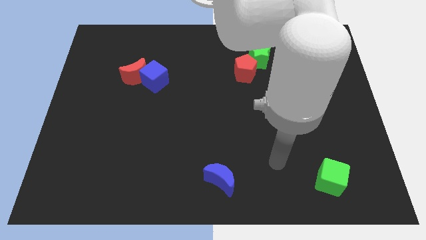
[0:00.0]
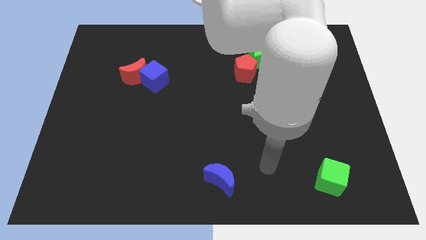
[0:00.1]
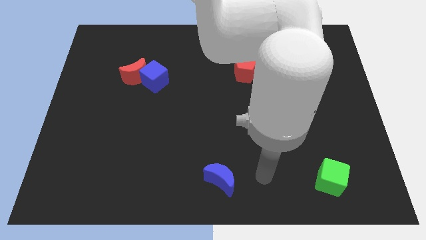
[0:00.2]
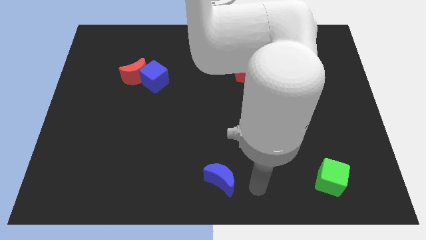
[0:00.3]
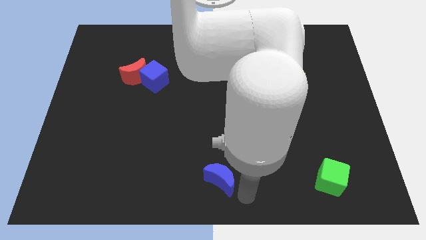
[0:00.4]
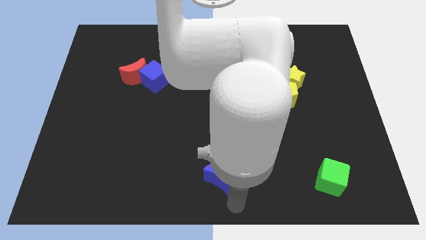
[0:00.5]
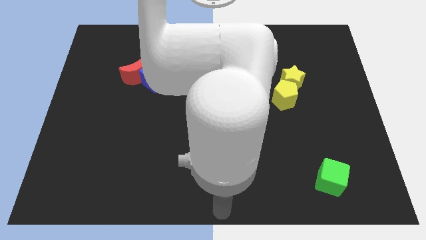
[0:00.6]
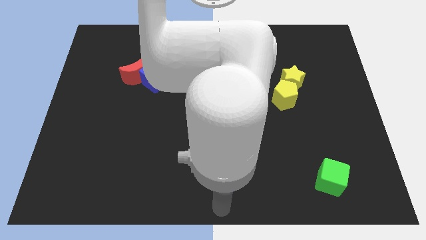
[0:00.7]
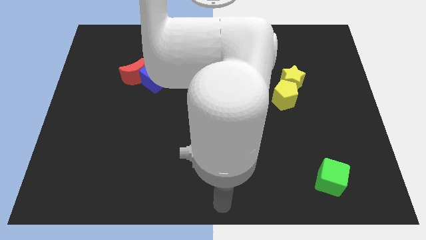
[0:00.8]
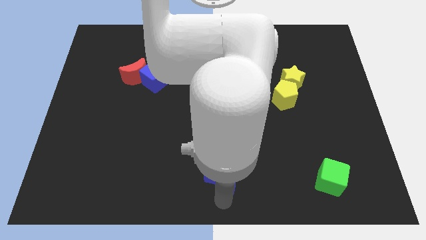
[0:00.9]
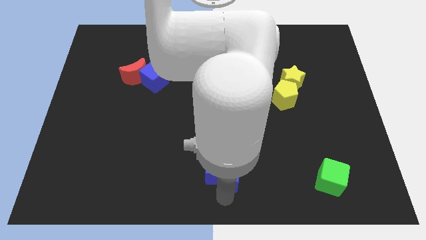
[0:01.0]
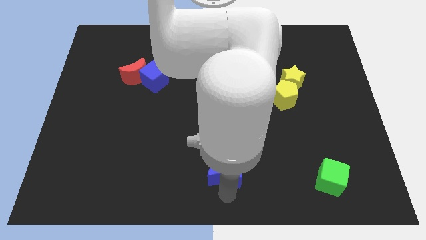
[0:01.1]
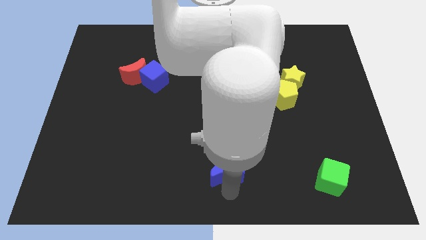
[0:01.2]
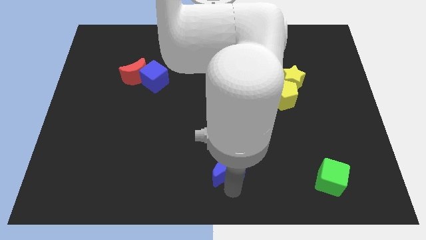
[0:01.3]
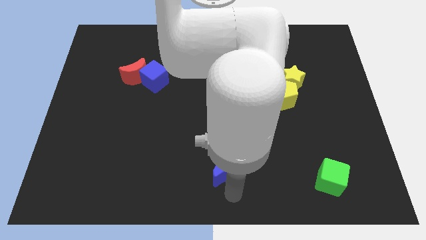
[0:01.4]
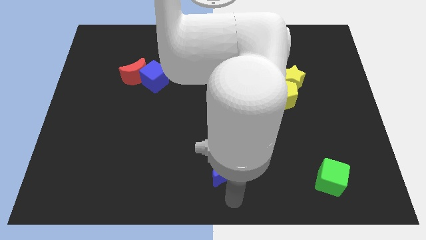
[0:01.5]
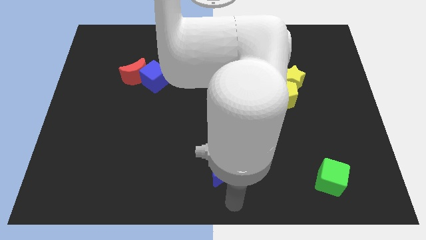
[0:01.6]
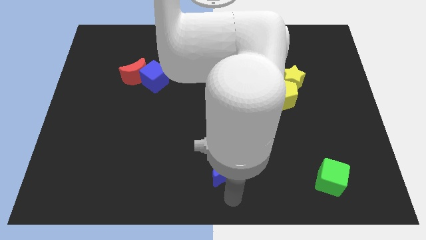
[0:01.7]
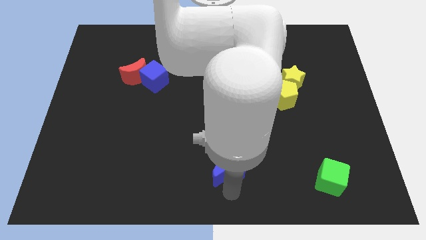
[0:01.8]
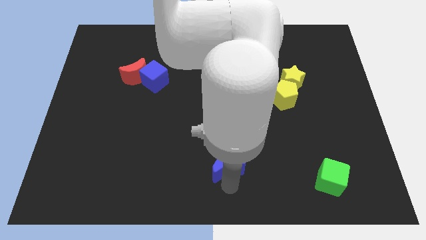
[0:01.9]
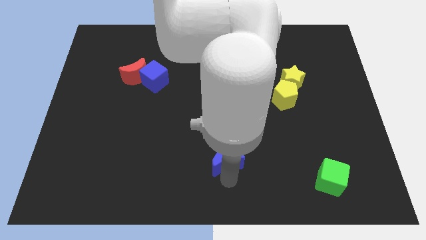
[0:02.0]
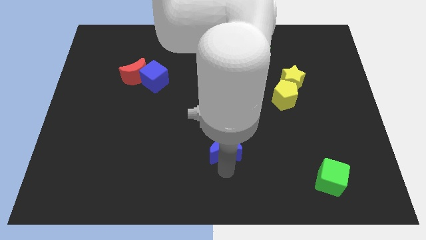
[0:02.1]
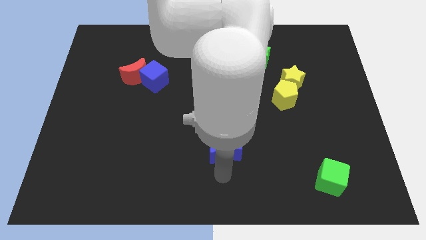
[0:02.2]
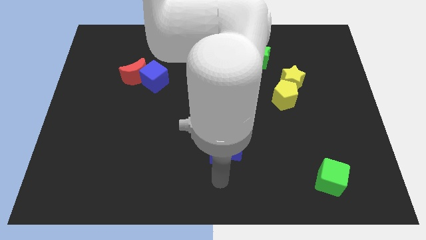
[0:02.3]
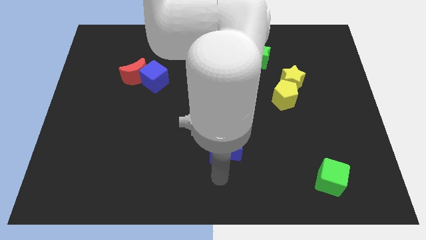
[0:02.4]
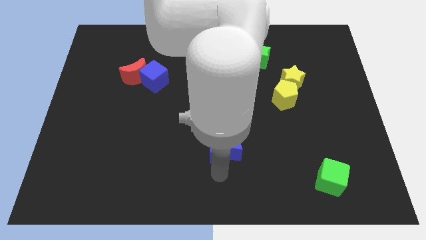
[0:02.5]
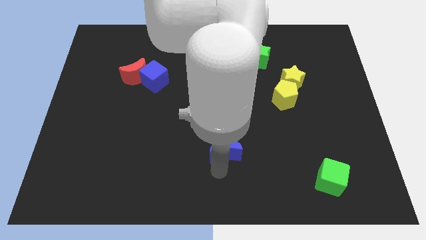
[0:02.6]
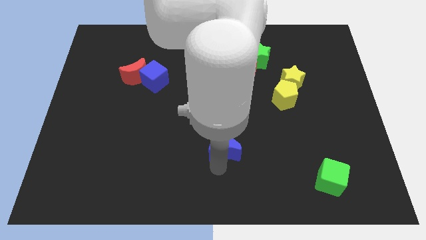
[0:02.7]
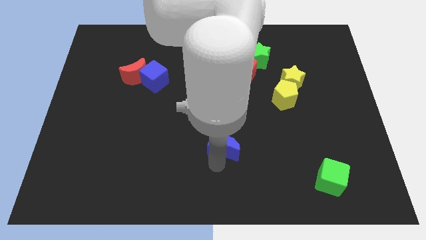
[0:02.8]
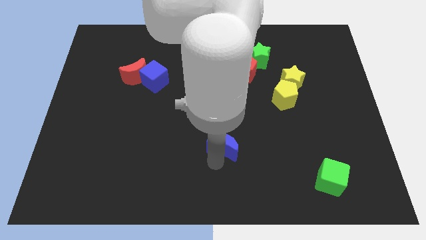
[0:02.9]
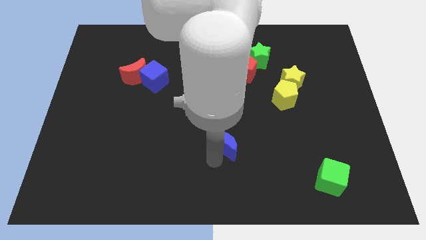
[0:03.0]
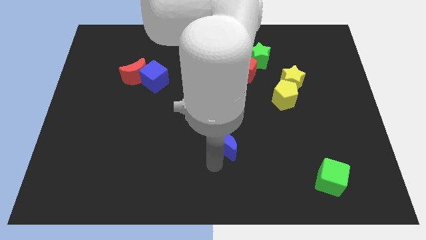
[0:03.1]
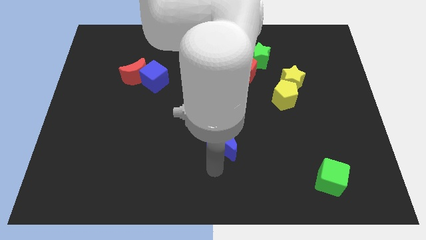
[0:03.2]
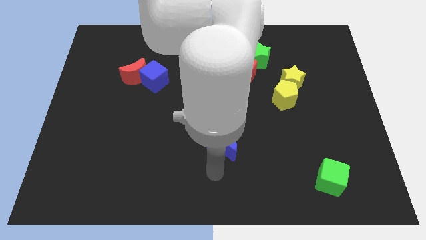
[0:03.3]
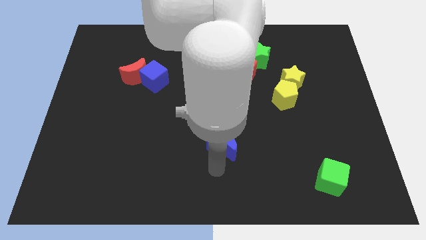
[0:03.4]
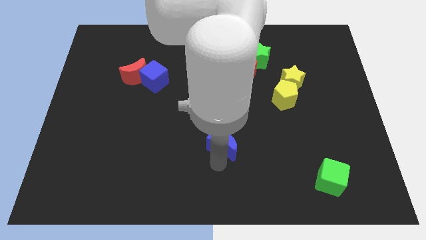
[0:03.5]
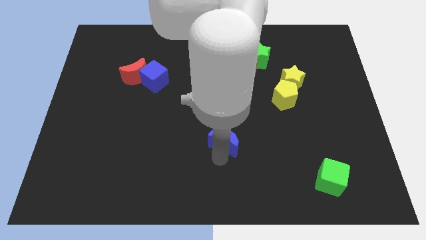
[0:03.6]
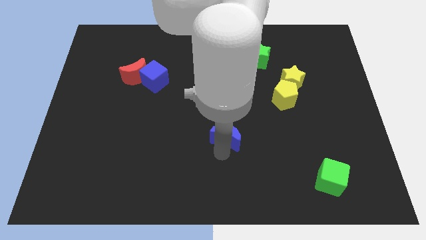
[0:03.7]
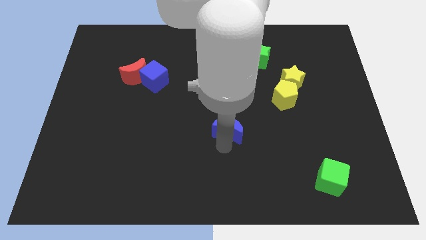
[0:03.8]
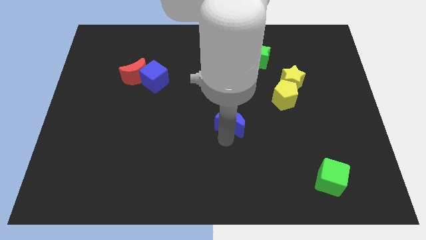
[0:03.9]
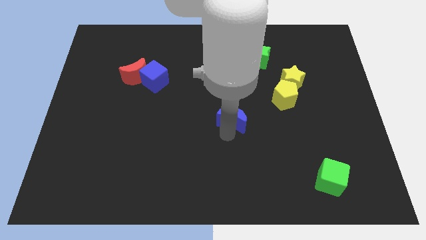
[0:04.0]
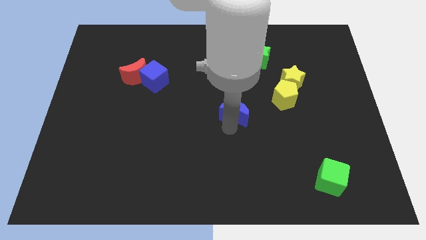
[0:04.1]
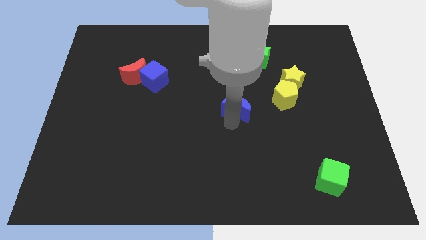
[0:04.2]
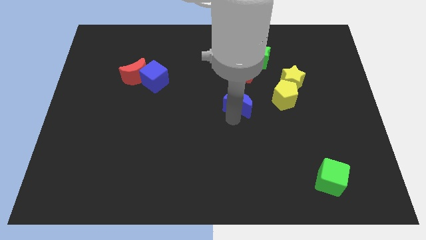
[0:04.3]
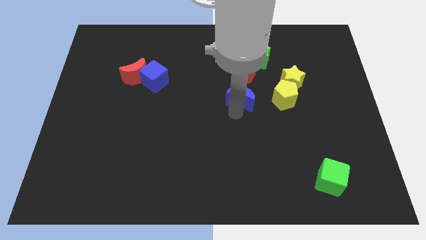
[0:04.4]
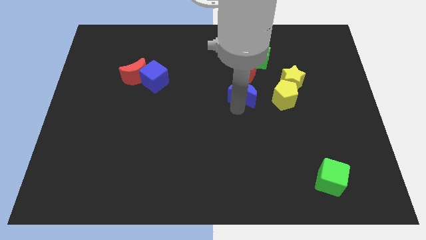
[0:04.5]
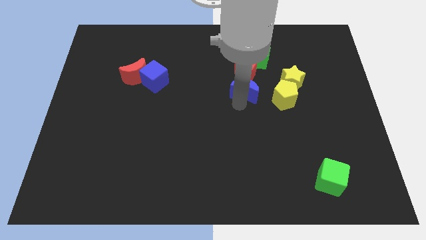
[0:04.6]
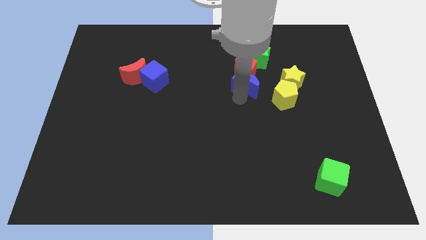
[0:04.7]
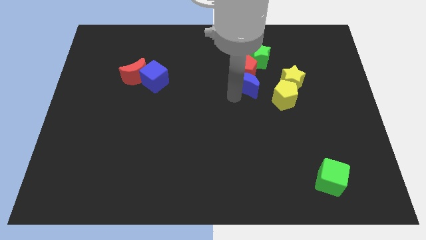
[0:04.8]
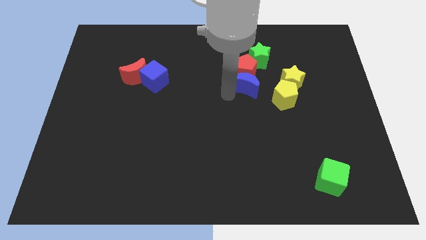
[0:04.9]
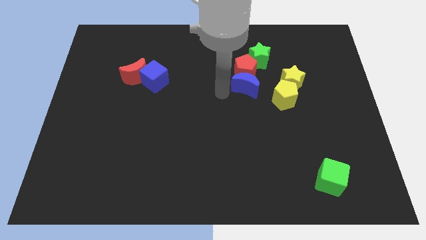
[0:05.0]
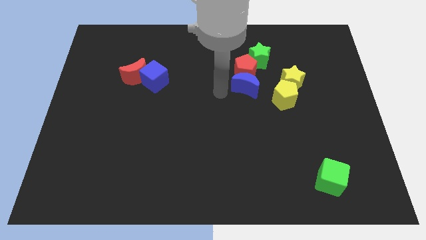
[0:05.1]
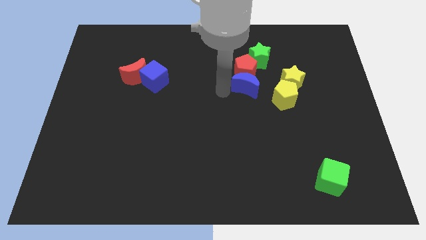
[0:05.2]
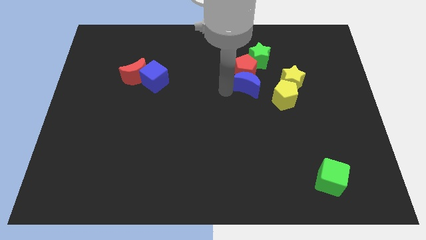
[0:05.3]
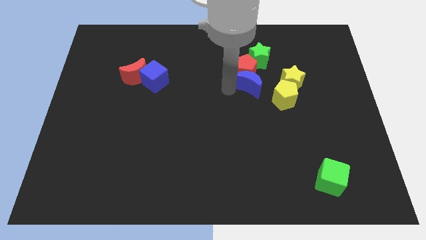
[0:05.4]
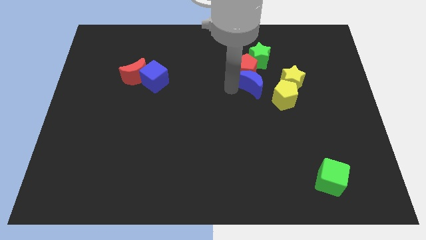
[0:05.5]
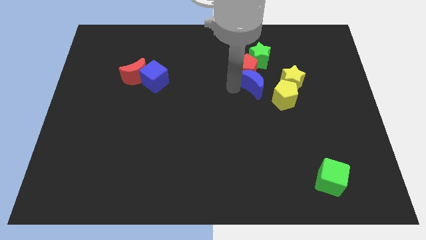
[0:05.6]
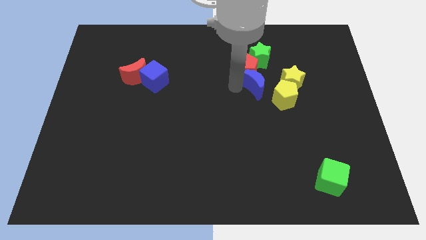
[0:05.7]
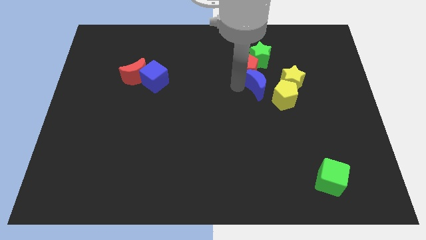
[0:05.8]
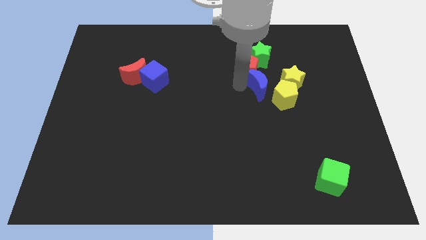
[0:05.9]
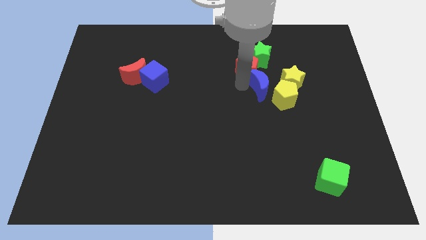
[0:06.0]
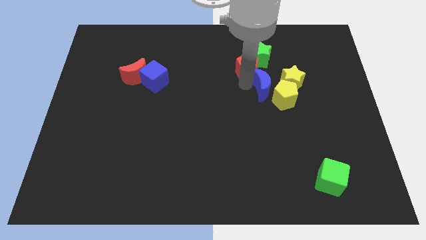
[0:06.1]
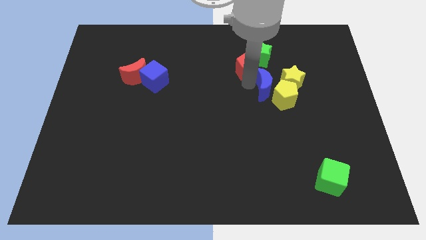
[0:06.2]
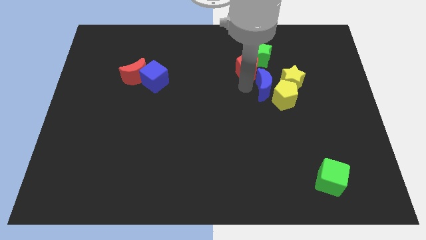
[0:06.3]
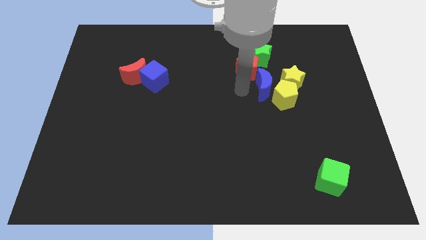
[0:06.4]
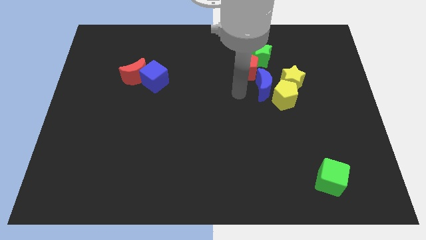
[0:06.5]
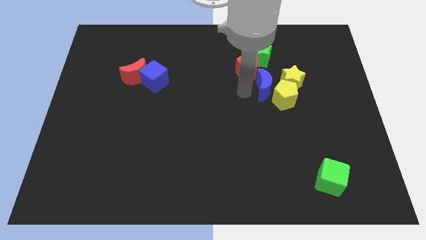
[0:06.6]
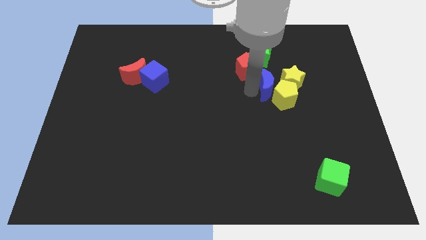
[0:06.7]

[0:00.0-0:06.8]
move the blue moon close to the yellow star

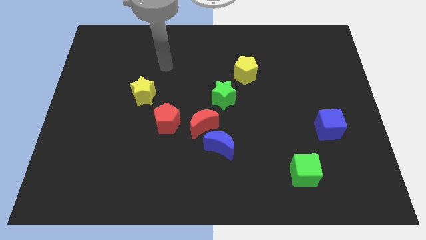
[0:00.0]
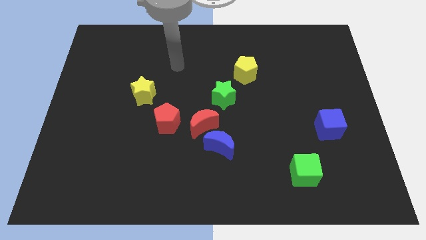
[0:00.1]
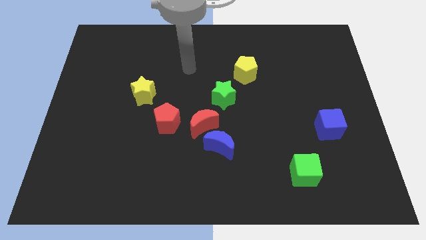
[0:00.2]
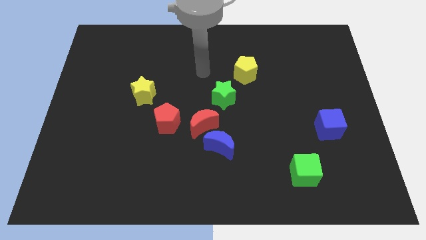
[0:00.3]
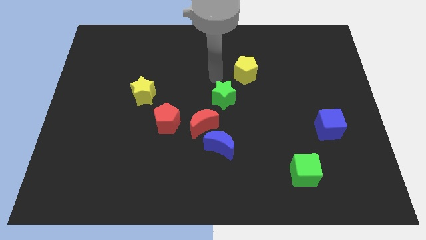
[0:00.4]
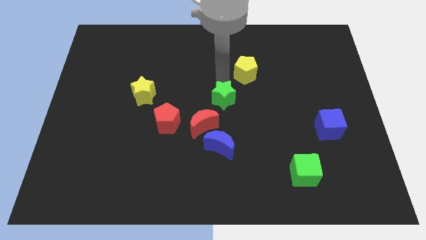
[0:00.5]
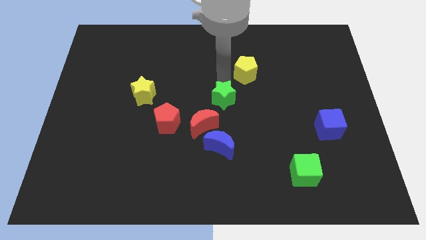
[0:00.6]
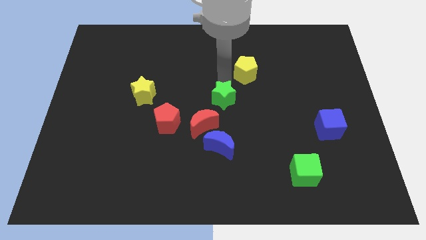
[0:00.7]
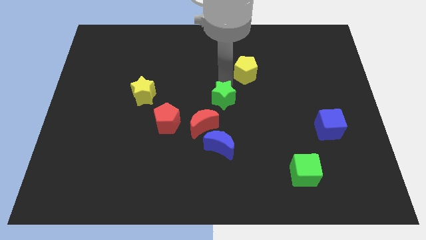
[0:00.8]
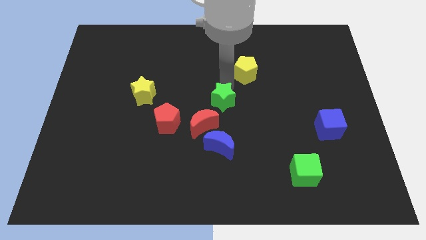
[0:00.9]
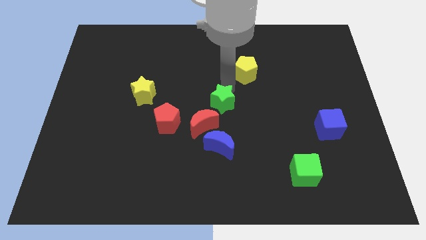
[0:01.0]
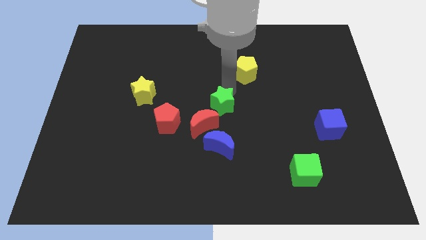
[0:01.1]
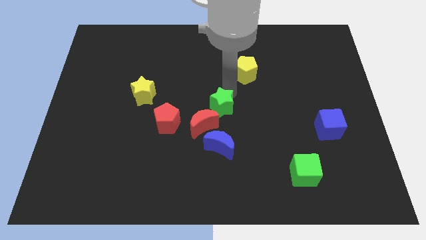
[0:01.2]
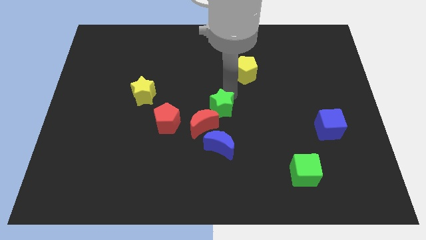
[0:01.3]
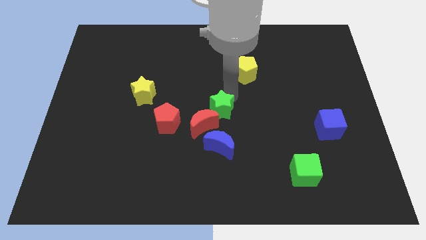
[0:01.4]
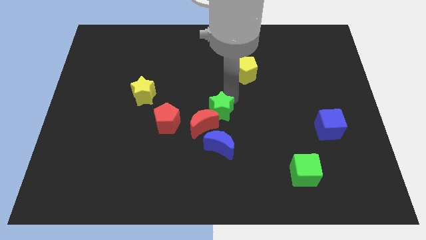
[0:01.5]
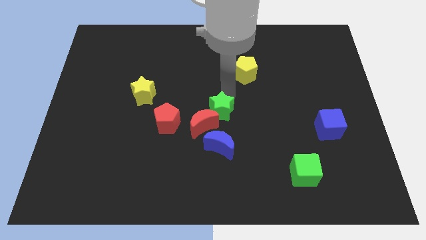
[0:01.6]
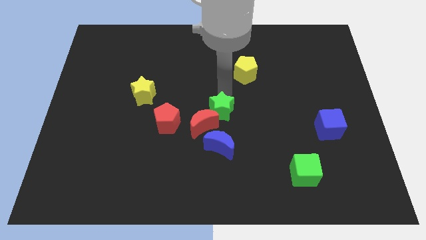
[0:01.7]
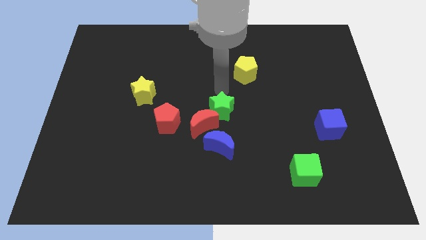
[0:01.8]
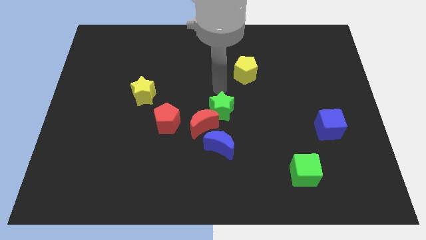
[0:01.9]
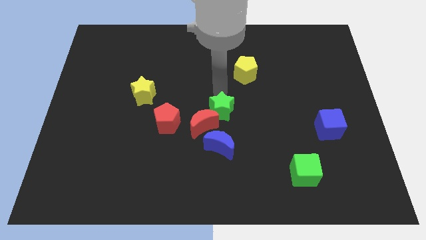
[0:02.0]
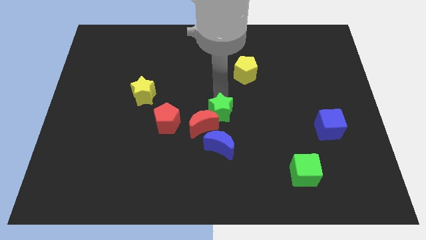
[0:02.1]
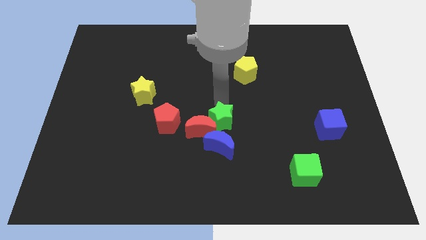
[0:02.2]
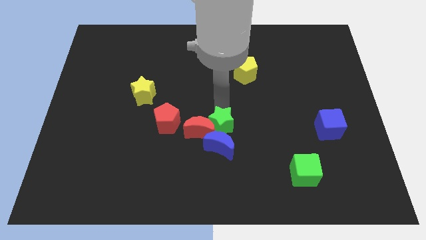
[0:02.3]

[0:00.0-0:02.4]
move the green star next to the blue moon
